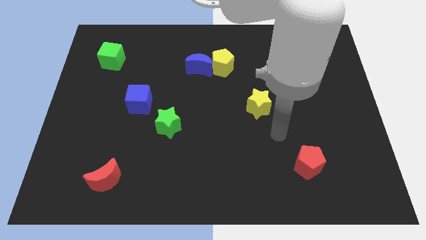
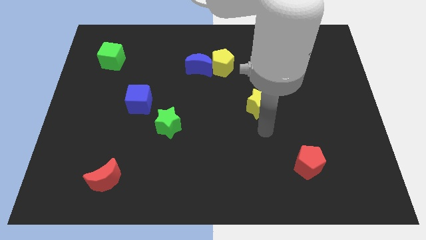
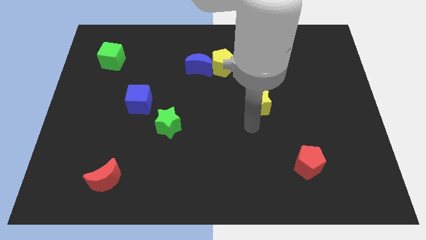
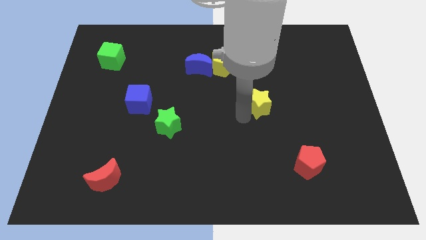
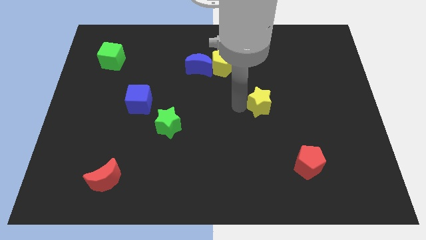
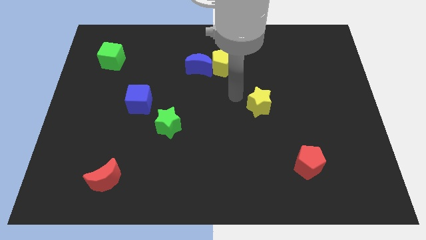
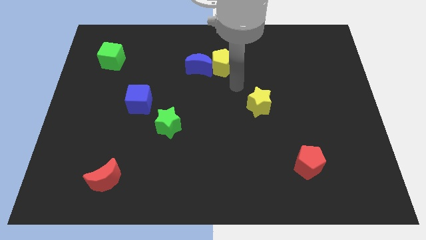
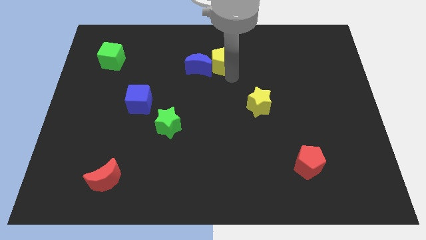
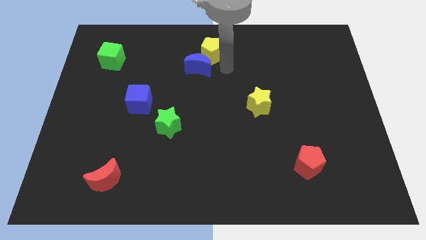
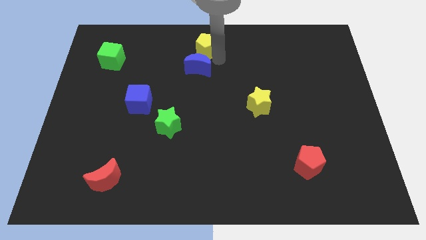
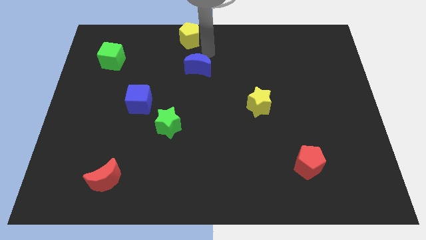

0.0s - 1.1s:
move the blue moon away from the yellow pentagon

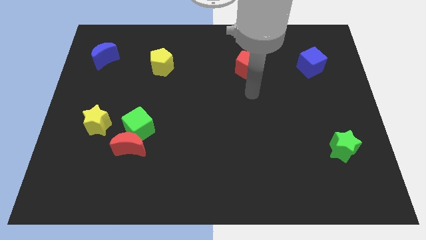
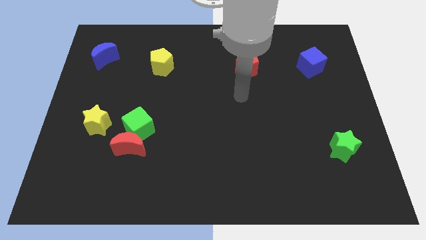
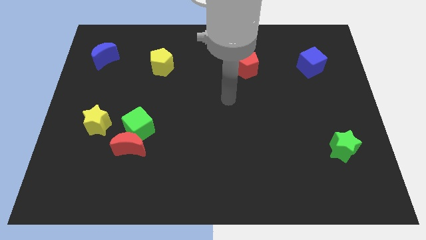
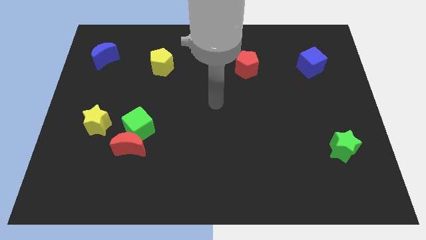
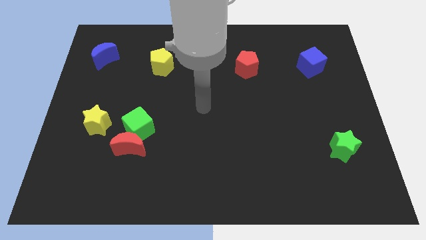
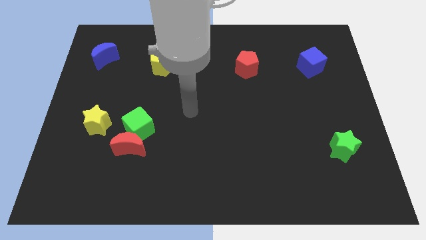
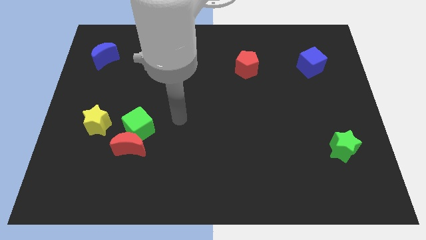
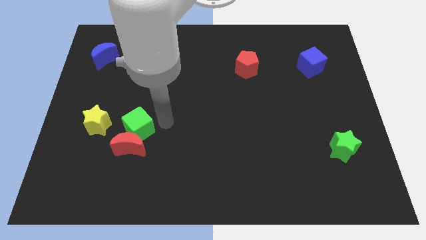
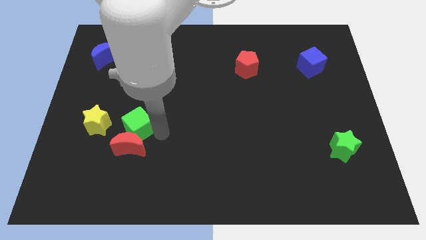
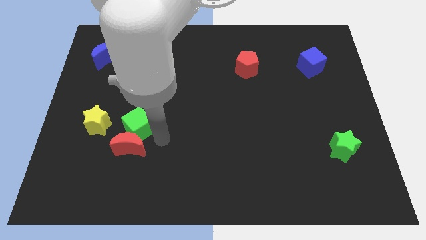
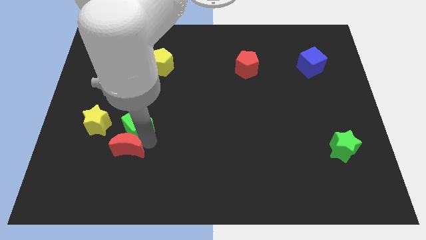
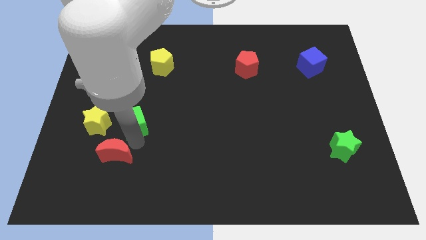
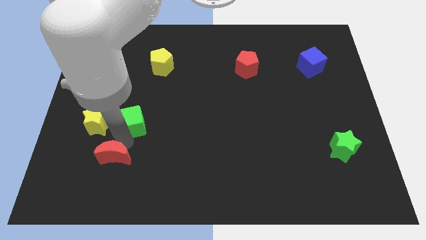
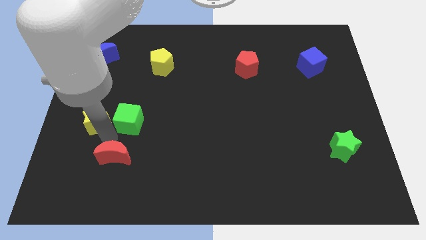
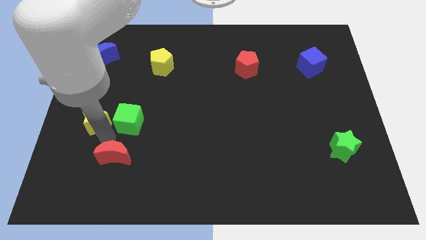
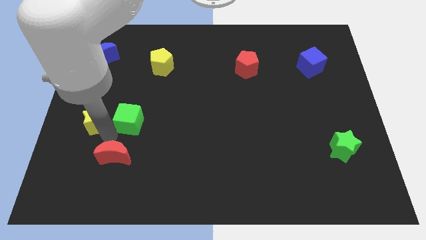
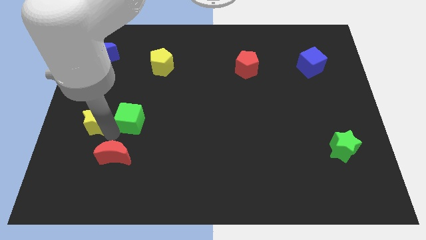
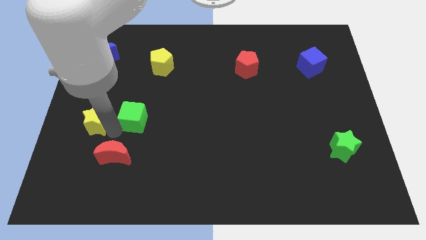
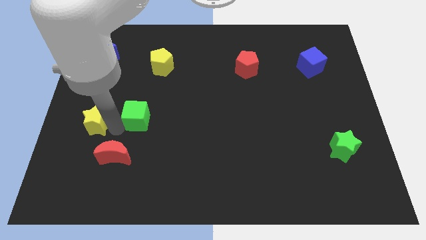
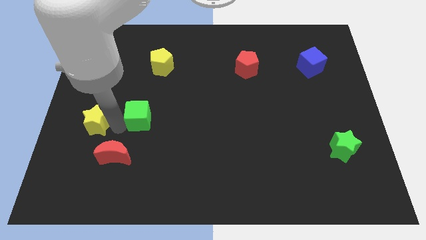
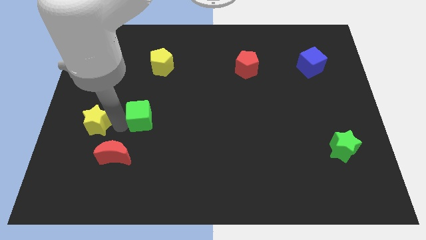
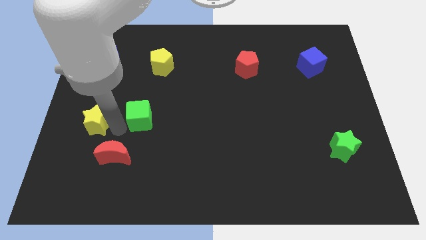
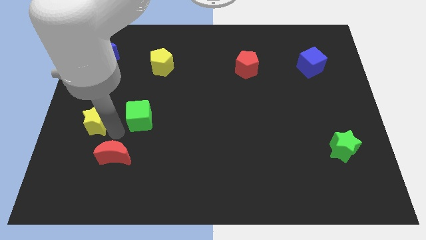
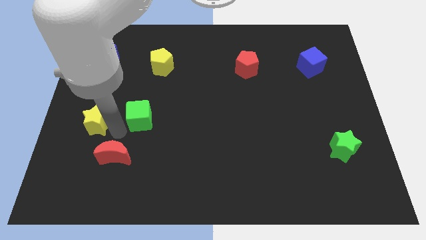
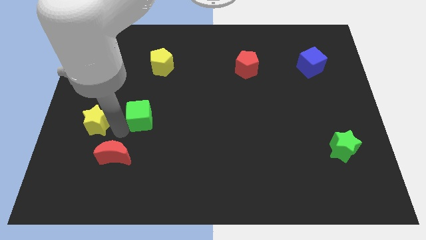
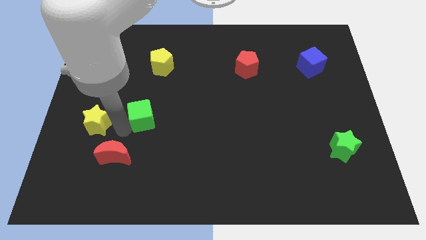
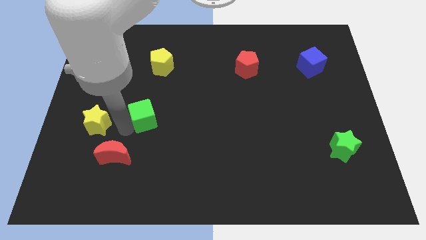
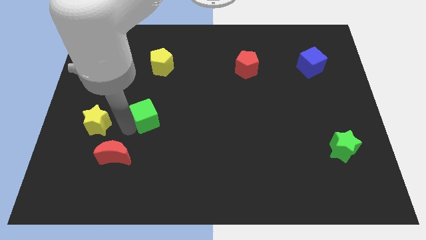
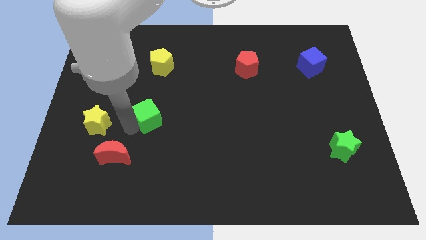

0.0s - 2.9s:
pull the green cube apart from the red moon and yellow star

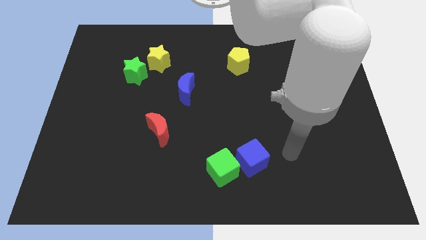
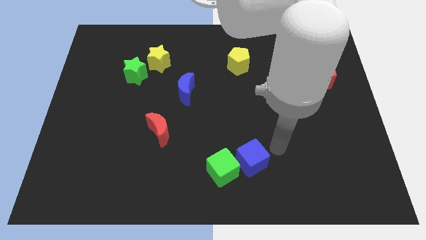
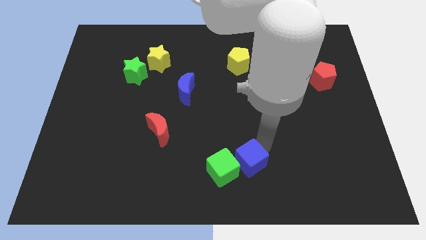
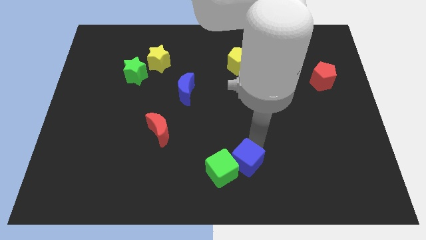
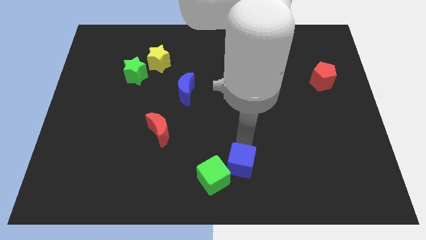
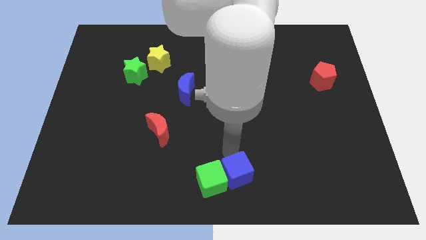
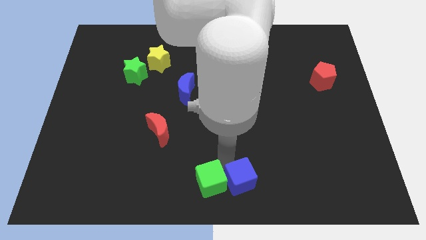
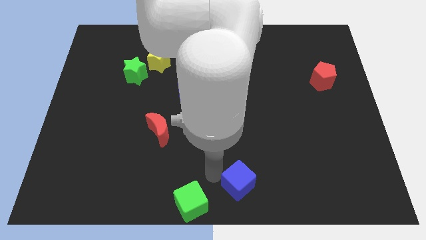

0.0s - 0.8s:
pull the blue cube apart from the green cube

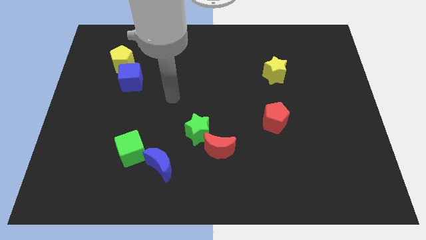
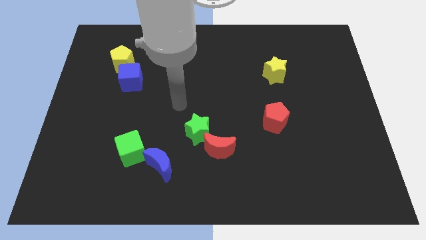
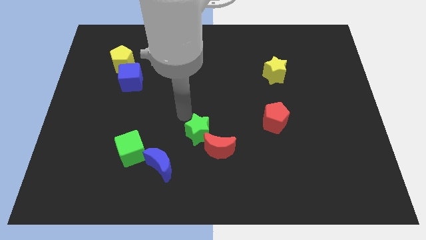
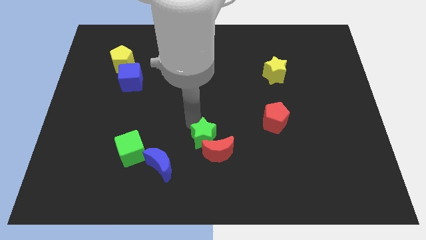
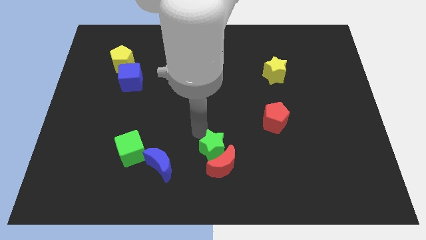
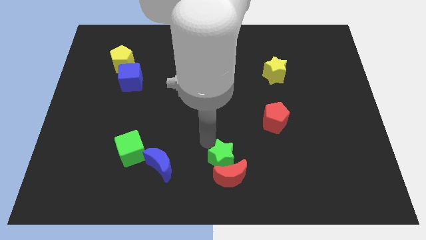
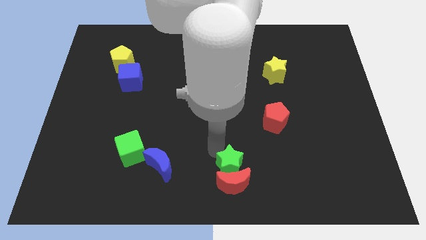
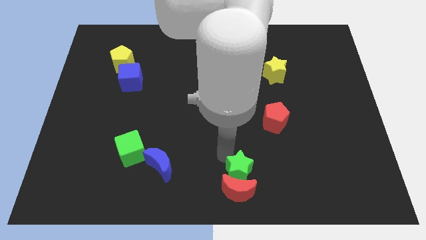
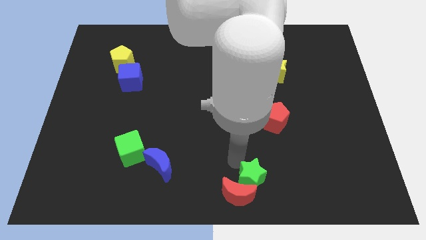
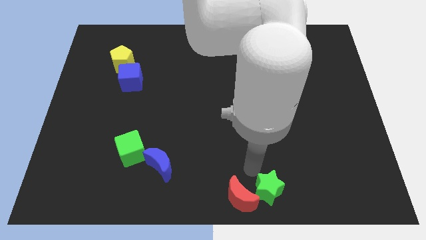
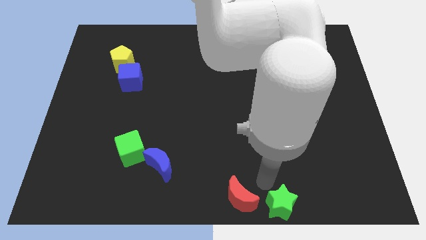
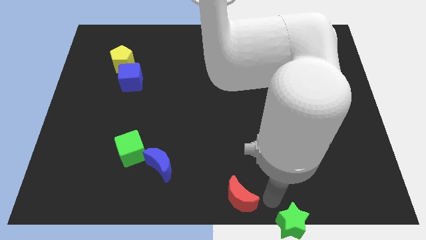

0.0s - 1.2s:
separate the red moon from the green star

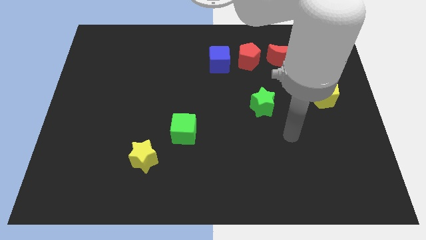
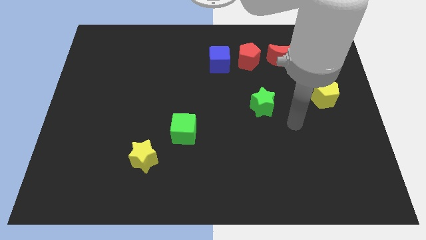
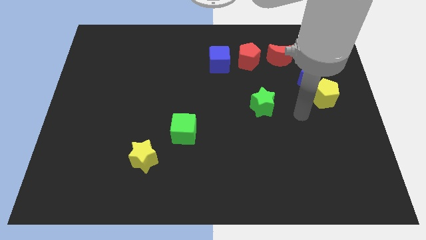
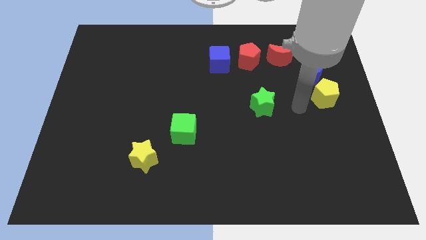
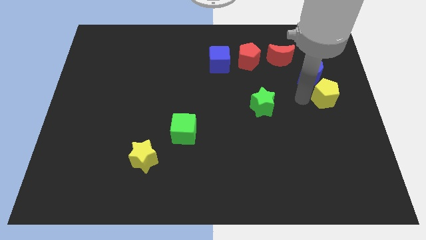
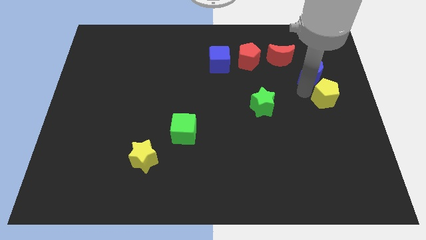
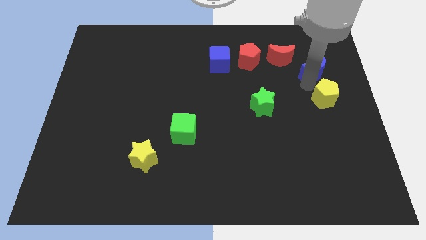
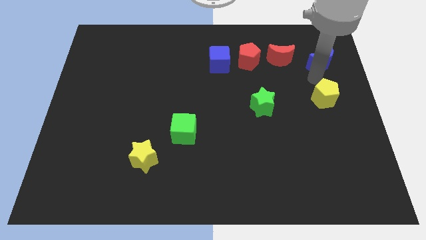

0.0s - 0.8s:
pull the yellow pentagon apart from the blue moon

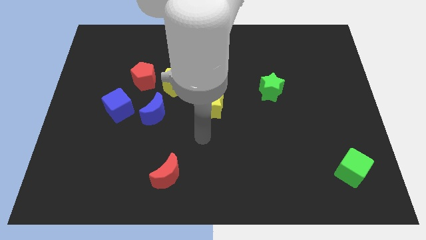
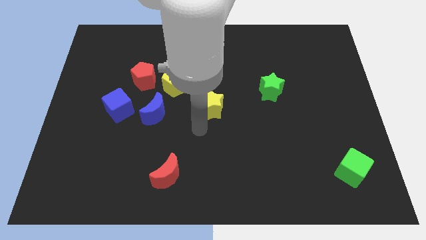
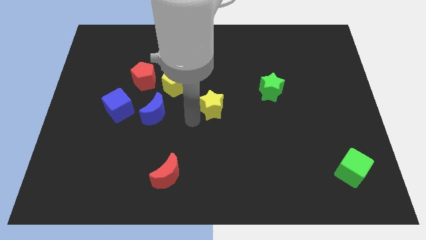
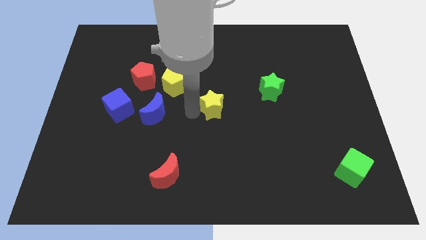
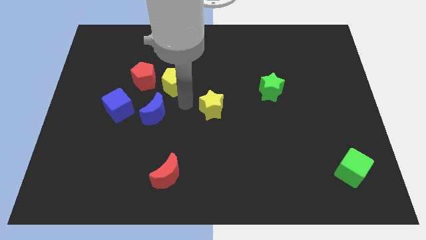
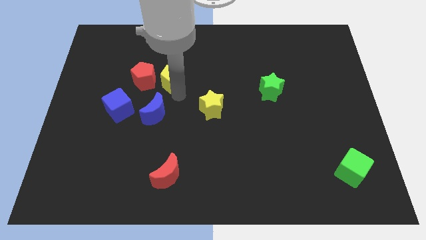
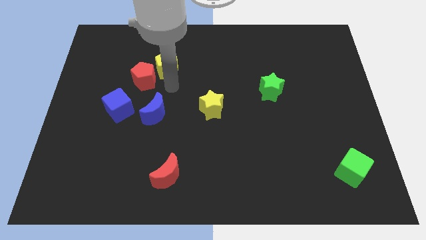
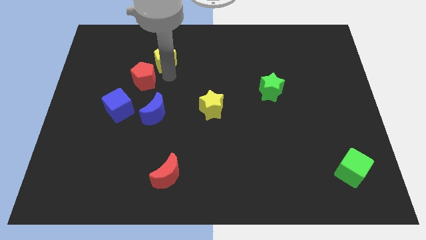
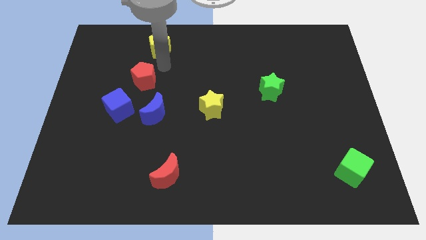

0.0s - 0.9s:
move the red pentagon away from the yellow pentagon

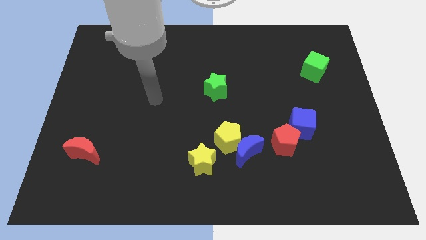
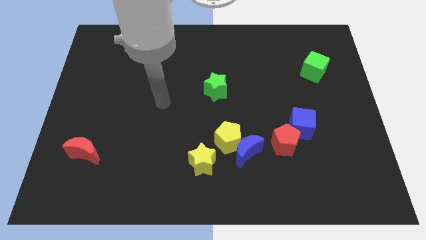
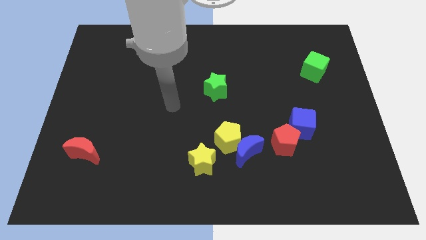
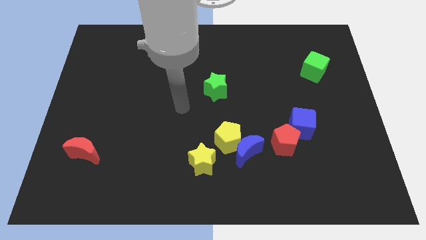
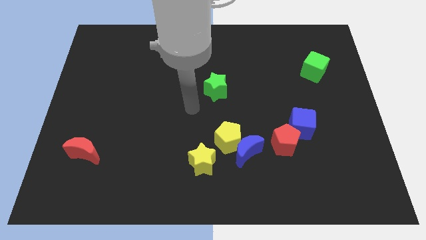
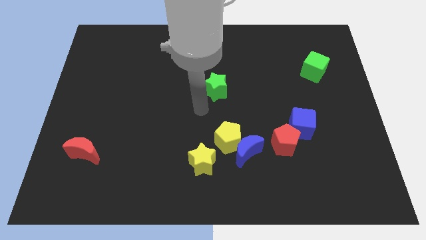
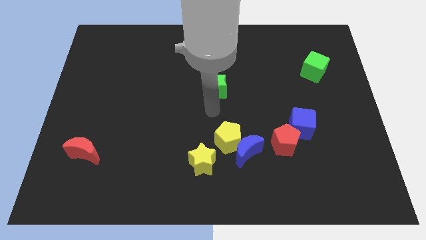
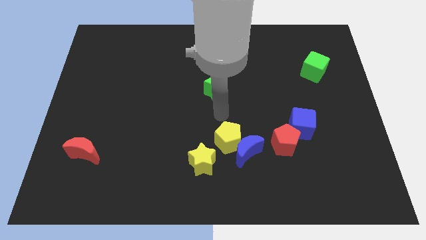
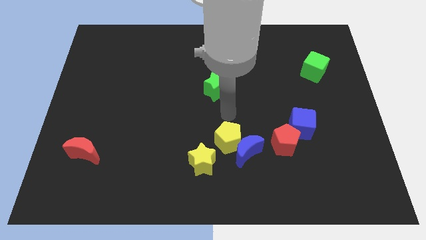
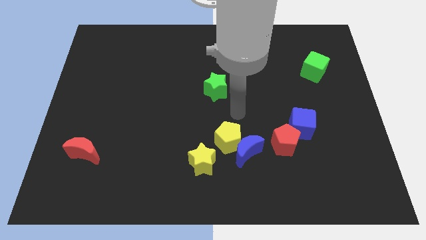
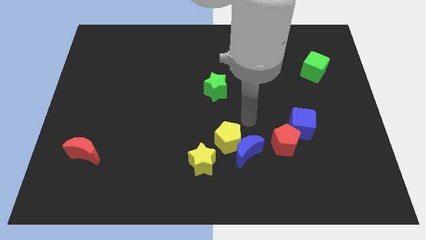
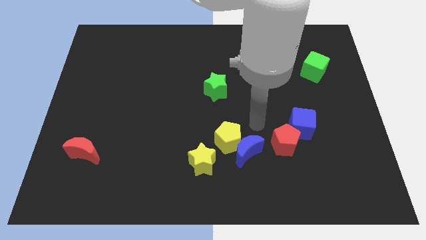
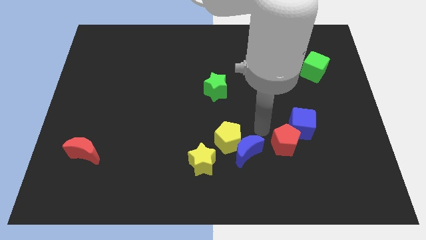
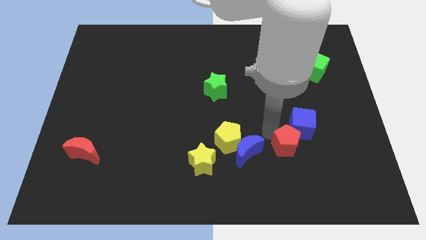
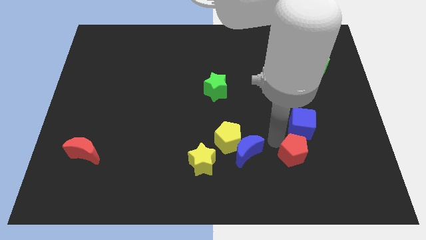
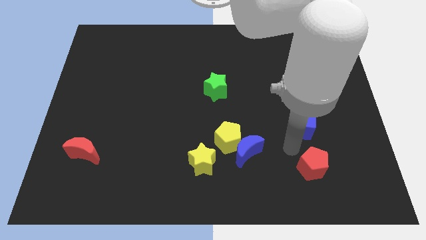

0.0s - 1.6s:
pull the blue cube apart from the red pentagon
